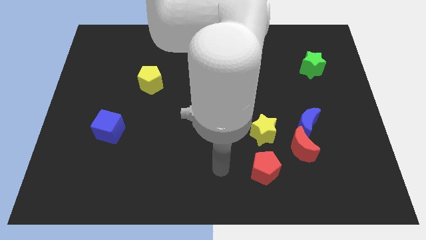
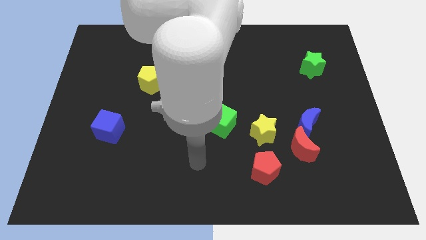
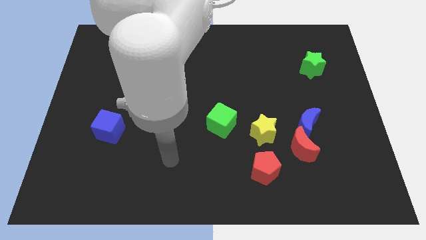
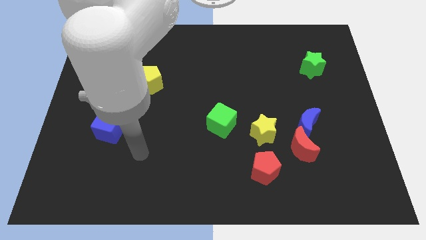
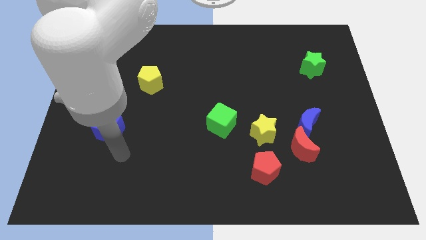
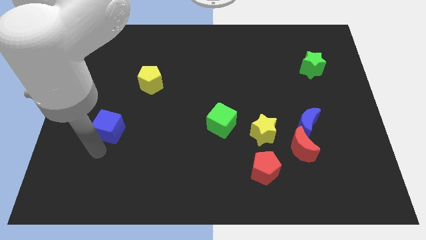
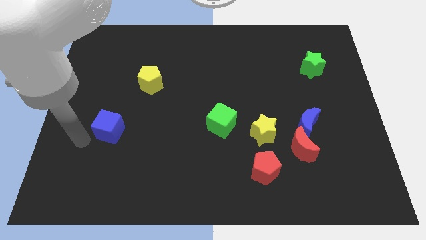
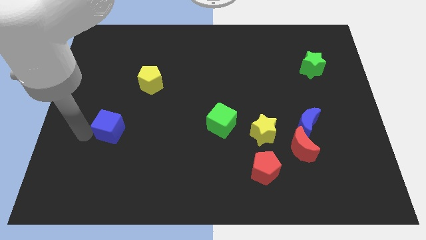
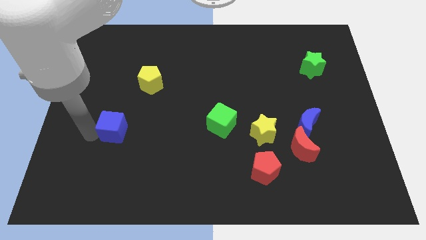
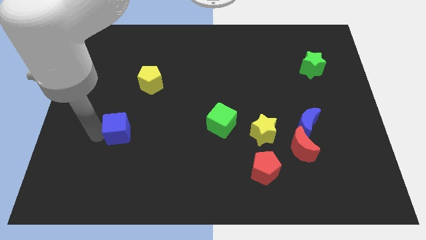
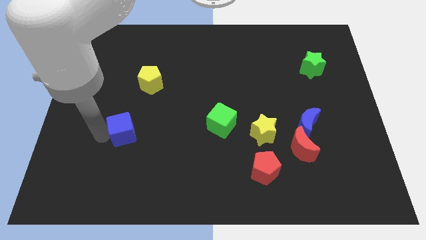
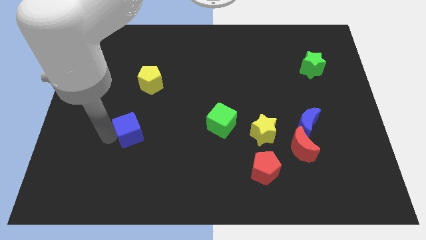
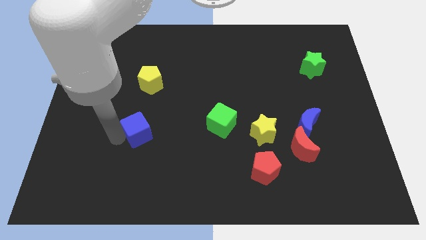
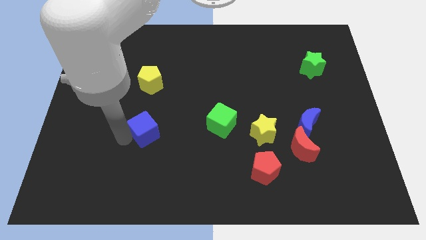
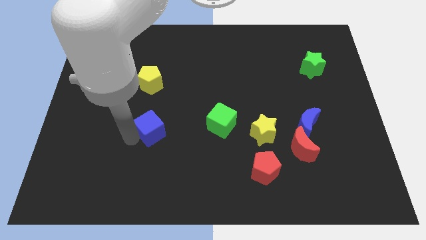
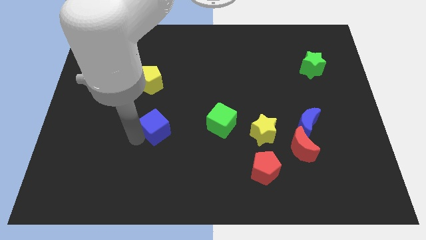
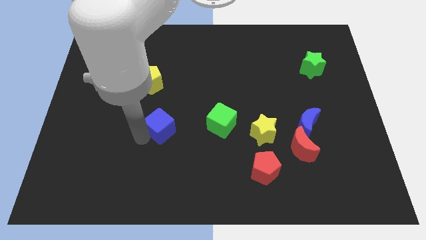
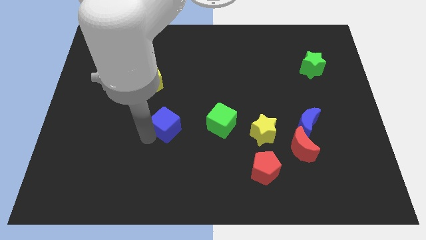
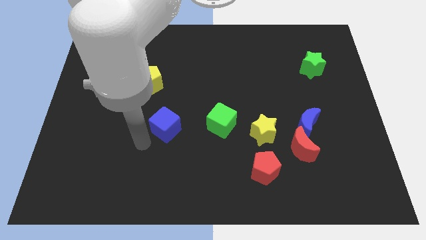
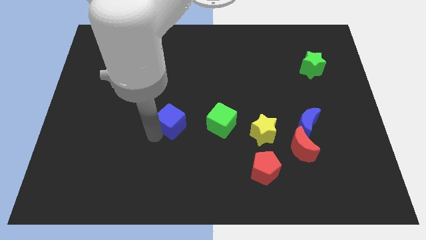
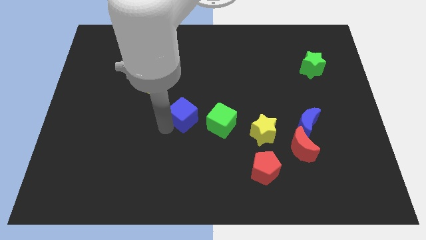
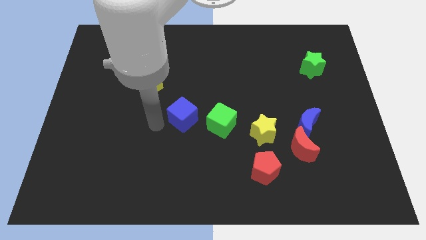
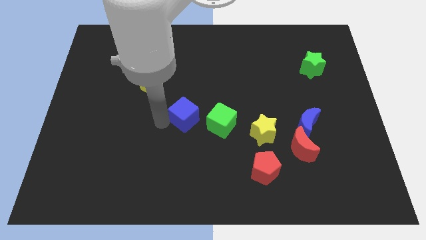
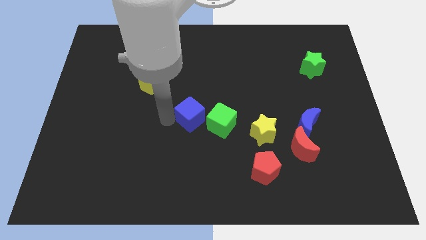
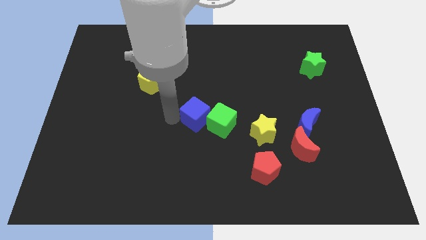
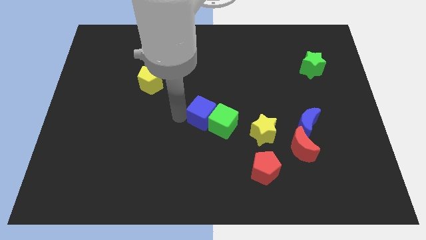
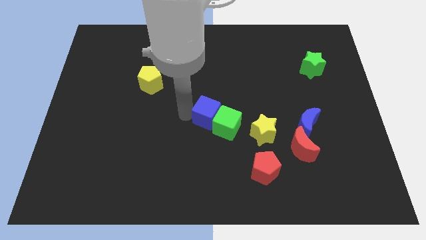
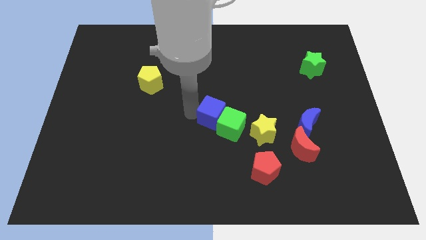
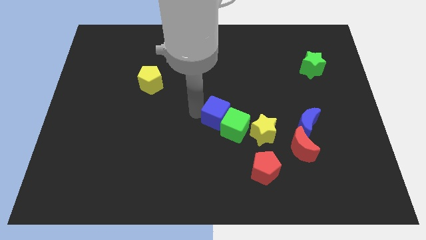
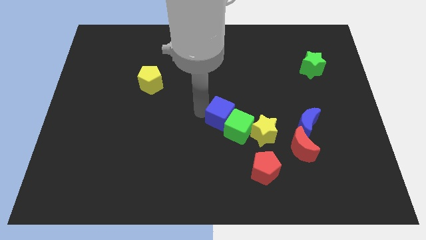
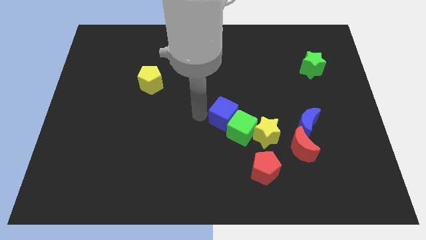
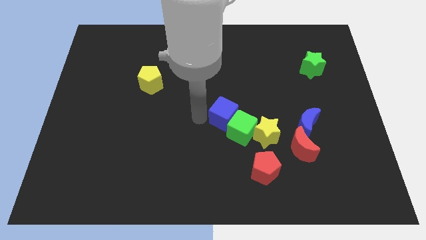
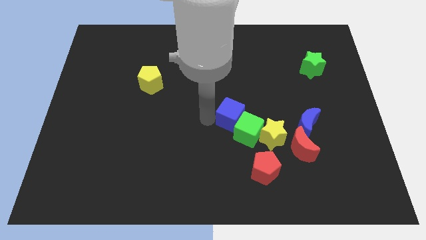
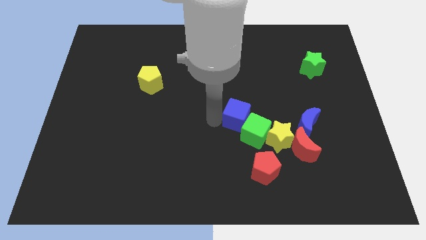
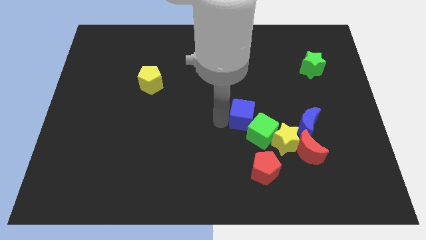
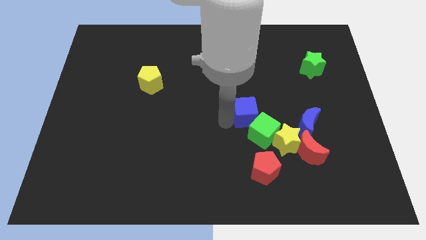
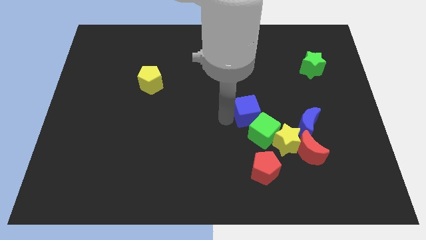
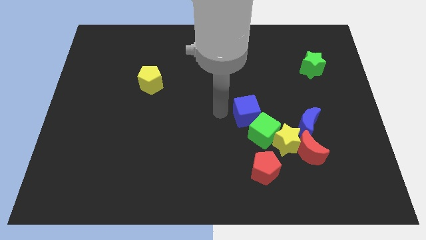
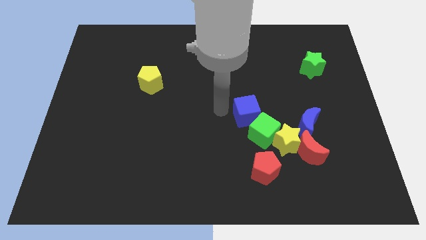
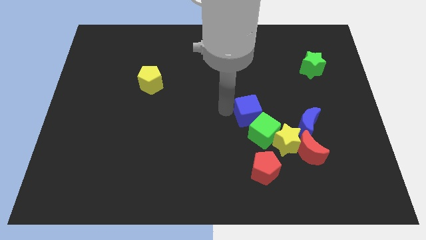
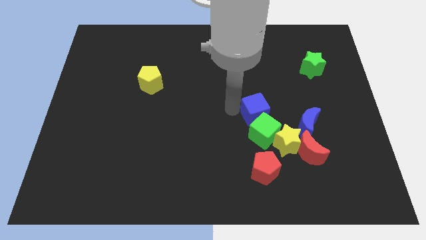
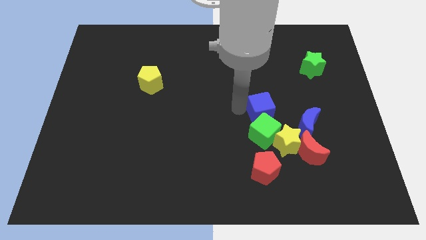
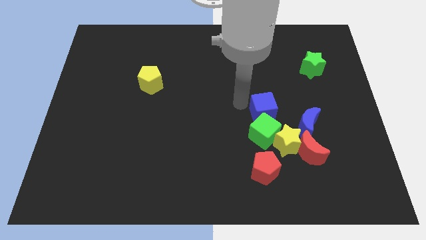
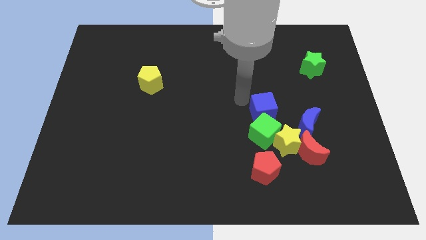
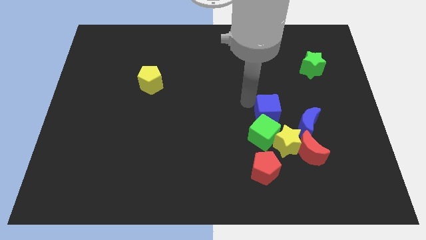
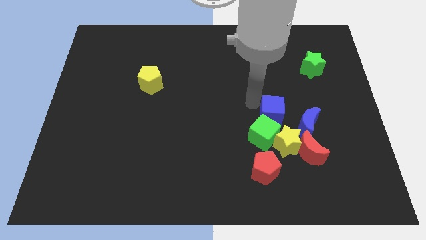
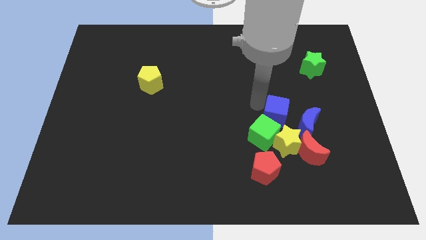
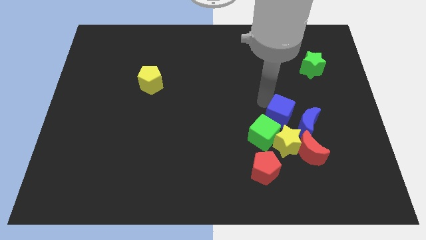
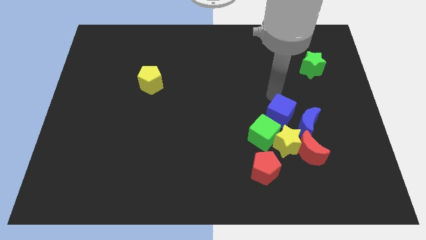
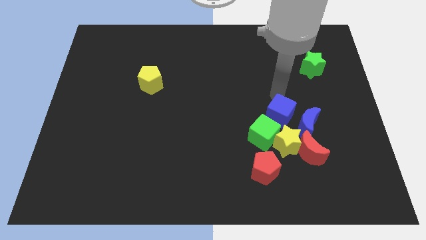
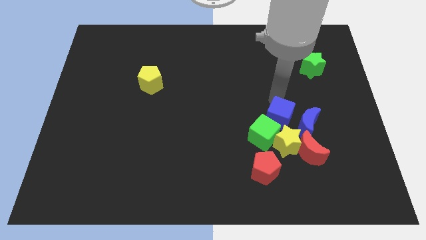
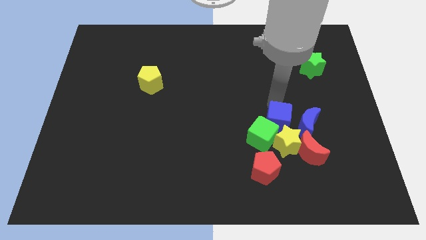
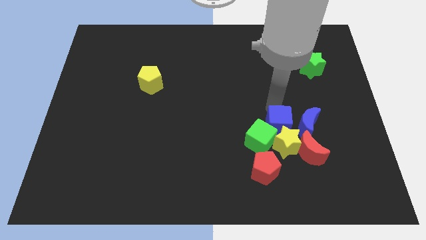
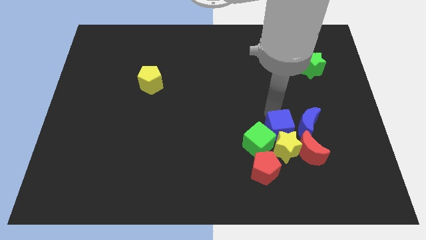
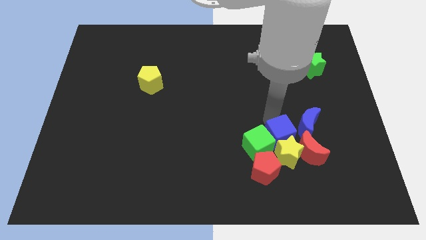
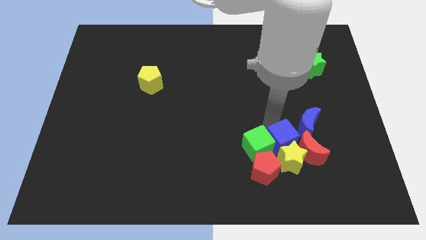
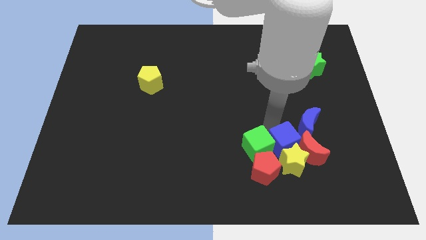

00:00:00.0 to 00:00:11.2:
push the blue cube next to the red moon

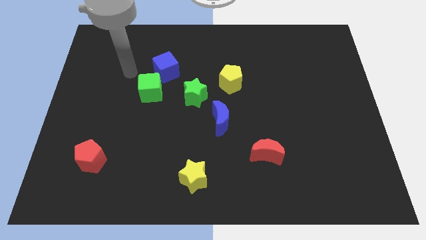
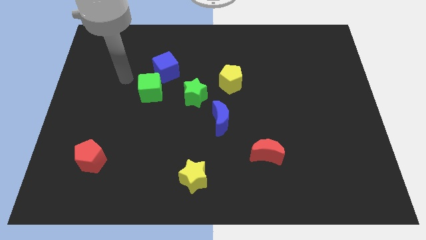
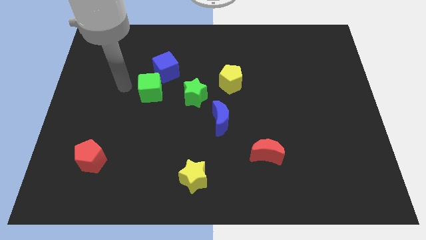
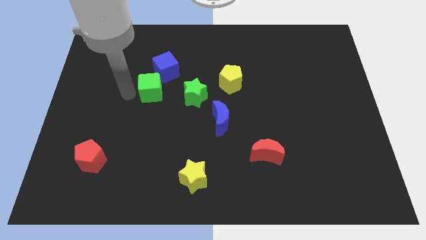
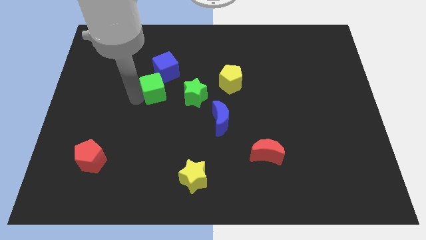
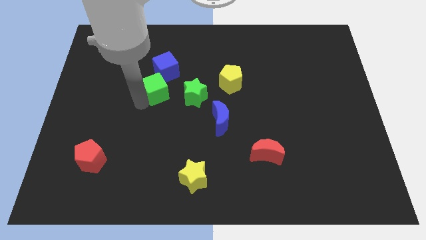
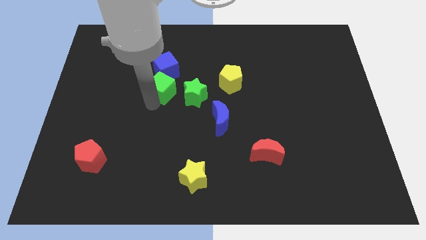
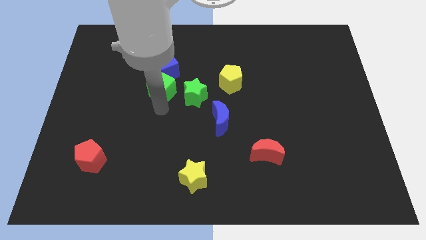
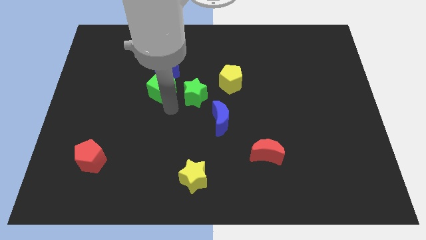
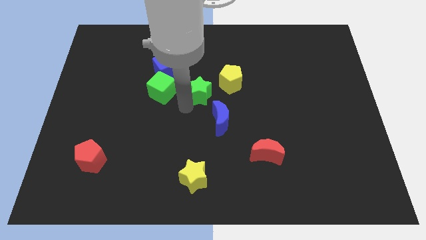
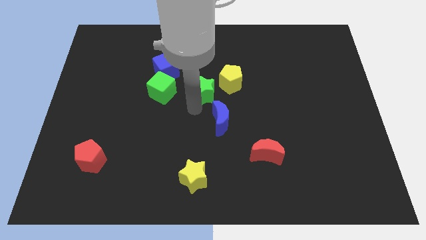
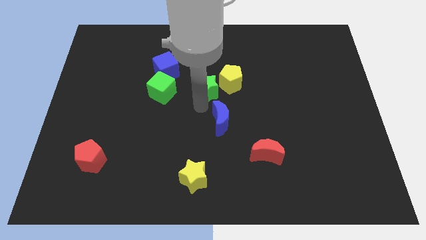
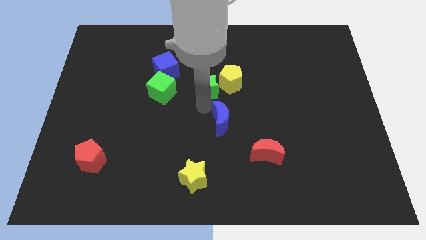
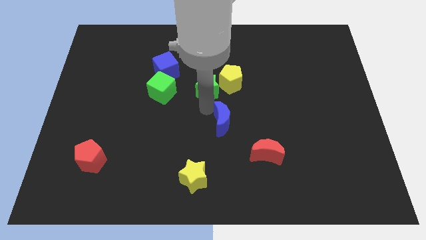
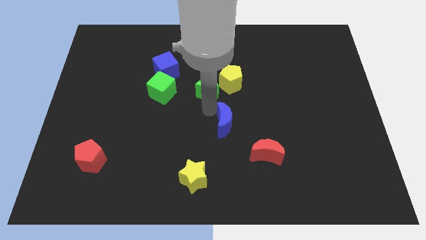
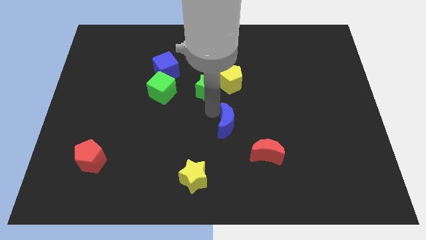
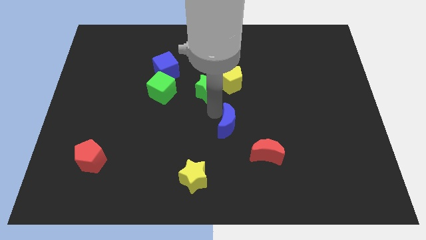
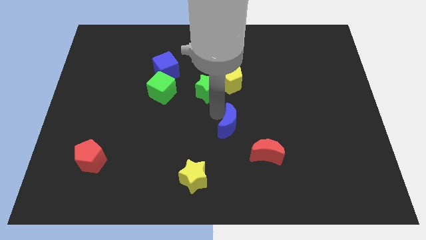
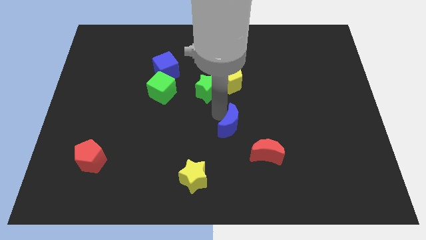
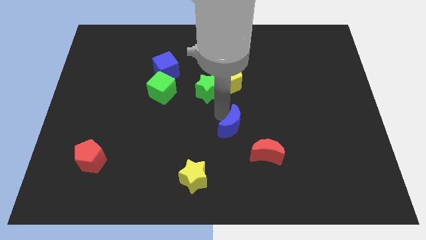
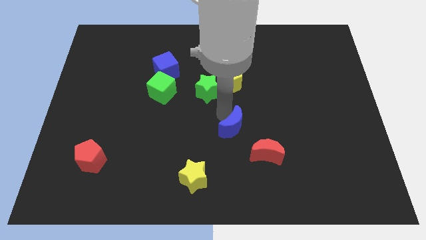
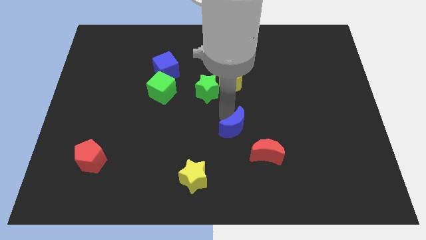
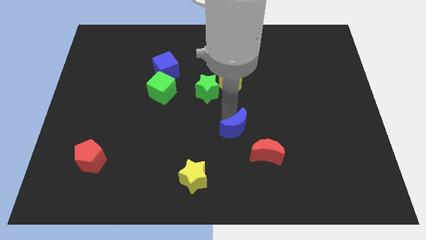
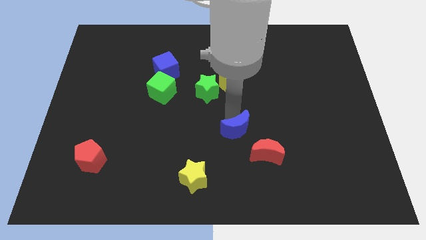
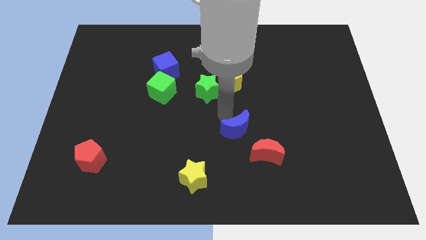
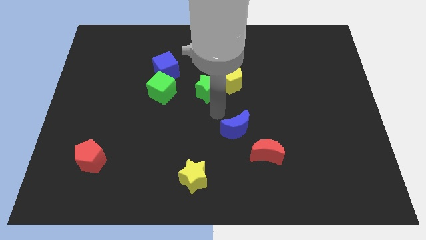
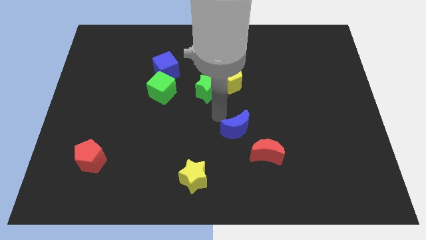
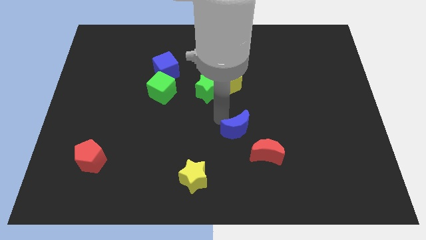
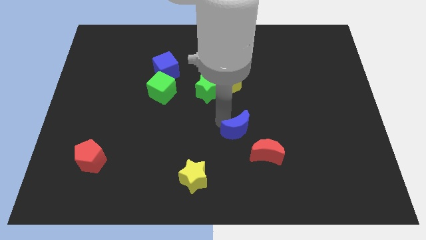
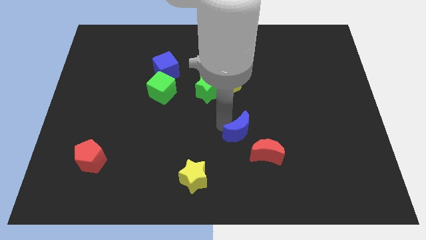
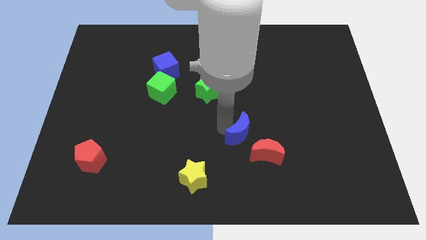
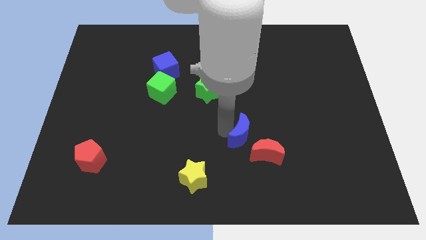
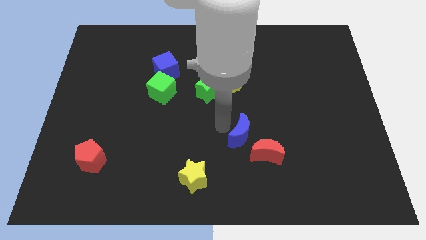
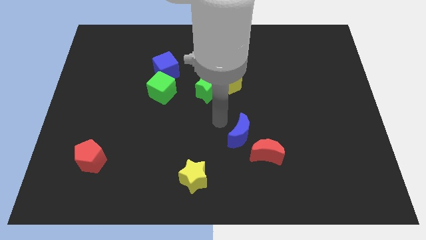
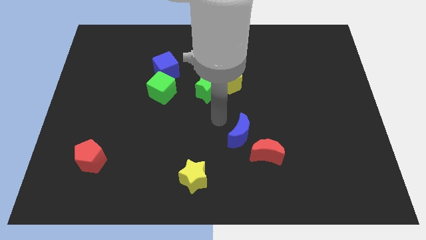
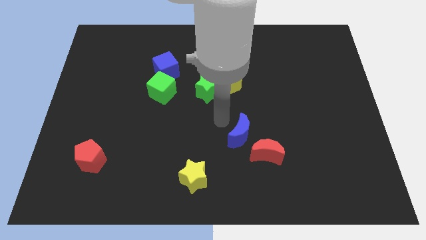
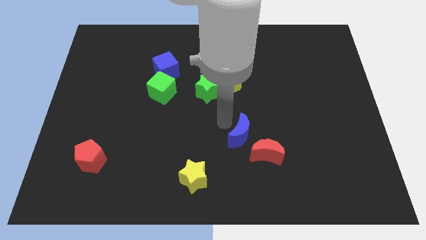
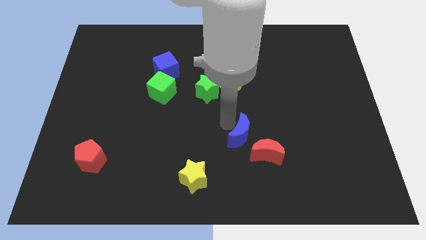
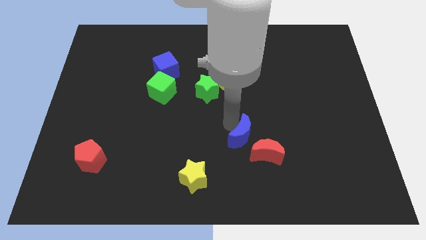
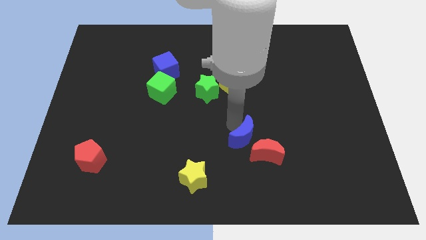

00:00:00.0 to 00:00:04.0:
put the blue moon next to the red moon
